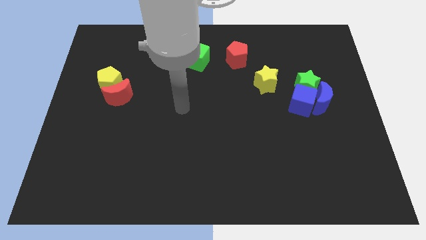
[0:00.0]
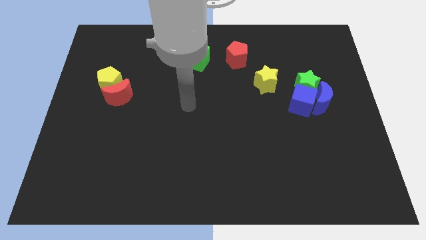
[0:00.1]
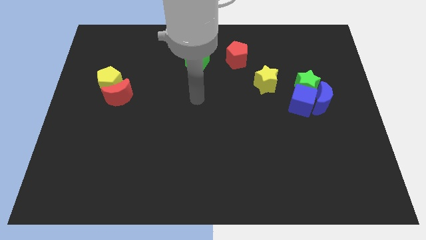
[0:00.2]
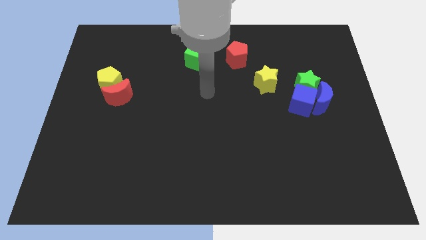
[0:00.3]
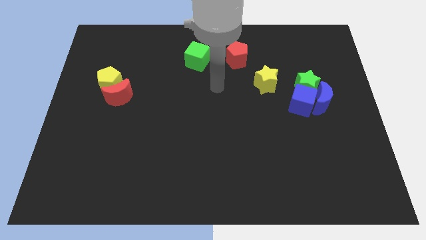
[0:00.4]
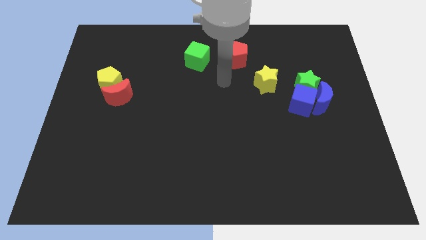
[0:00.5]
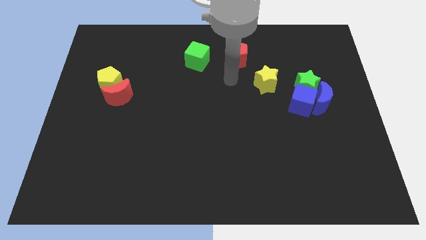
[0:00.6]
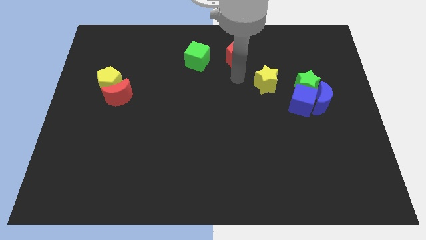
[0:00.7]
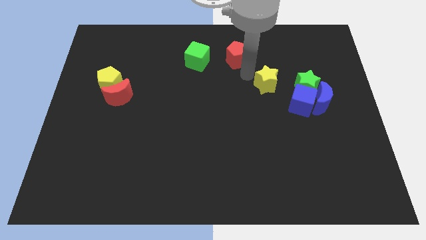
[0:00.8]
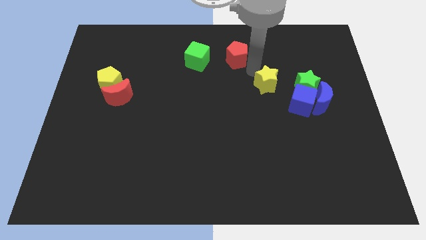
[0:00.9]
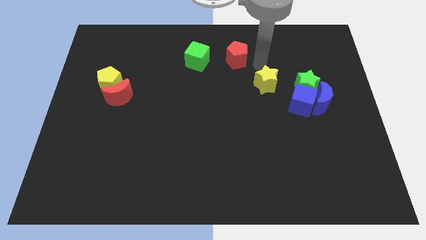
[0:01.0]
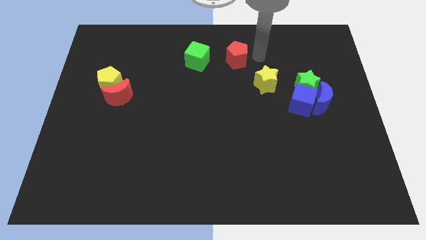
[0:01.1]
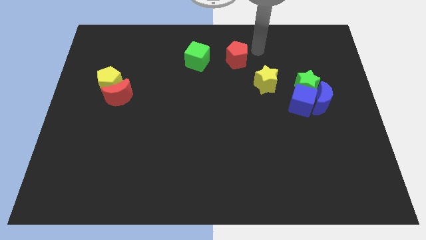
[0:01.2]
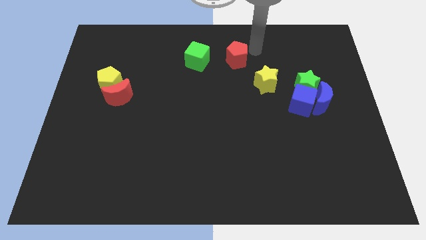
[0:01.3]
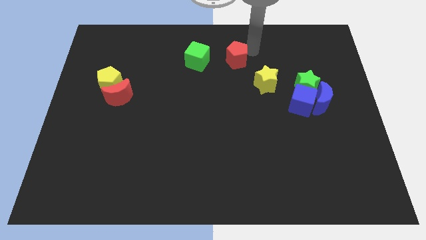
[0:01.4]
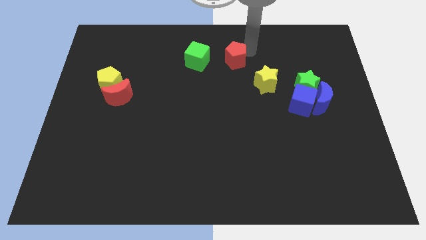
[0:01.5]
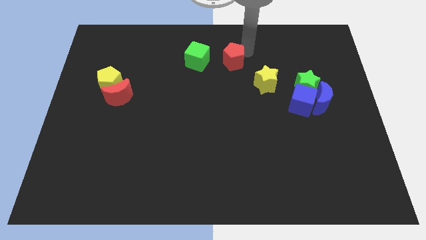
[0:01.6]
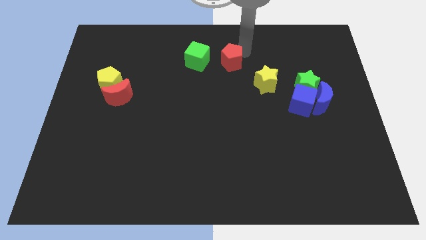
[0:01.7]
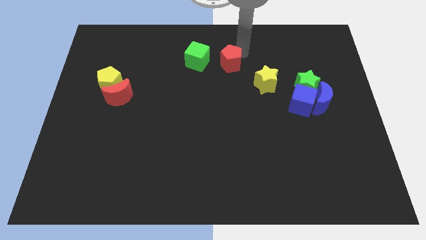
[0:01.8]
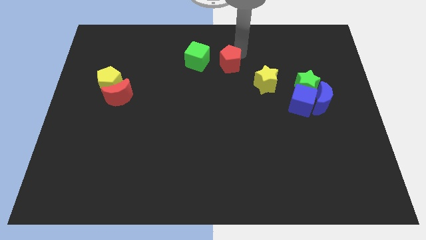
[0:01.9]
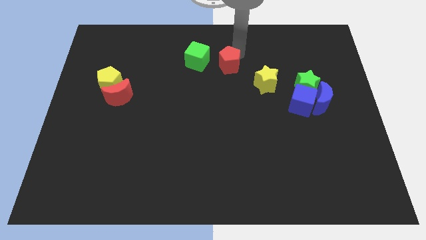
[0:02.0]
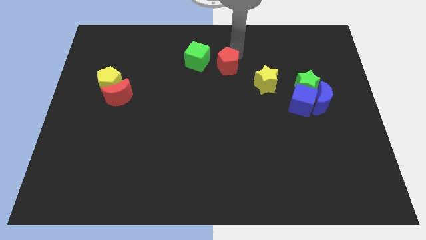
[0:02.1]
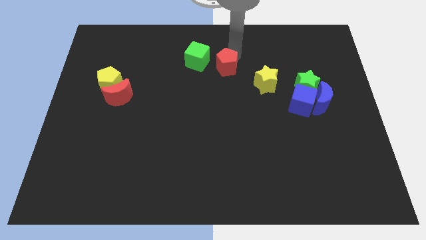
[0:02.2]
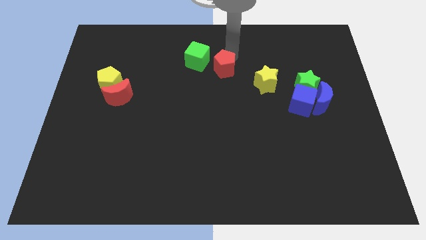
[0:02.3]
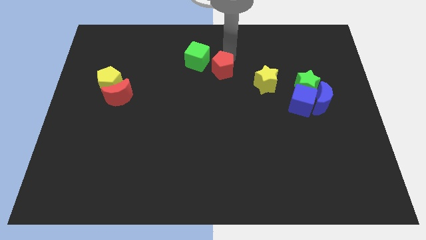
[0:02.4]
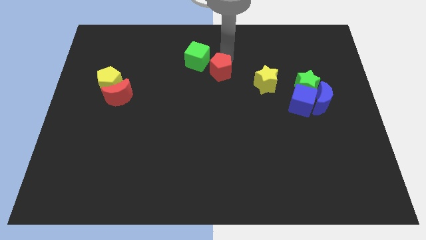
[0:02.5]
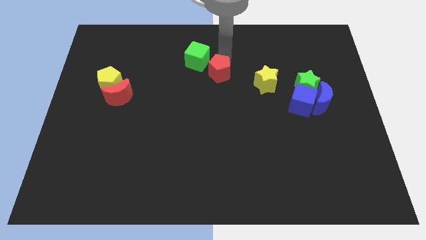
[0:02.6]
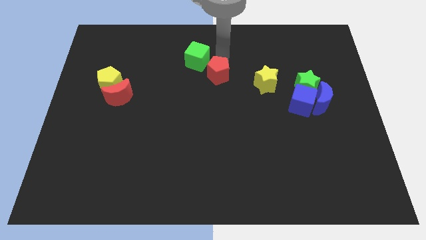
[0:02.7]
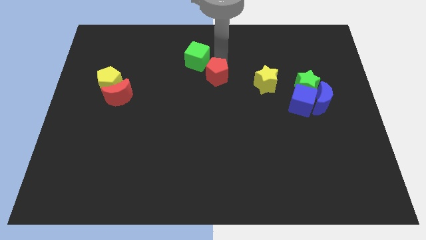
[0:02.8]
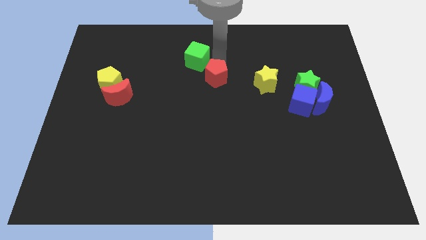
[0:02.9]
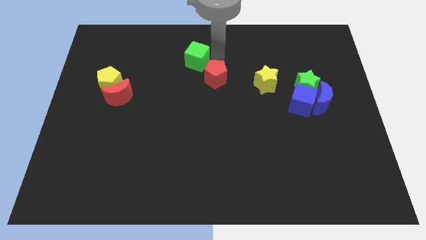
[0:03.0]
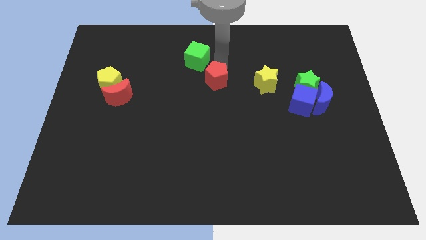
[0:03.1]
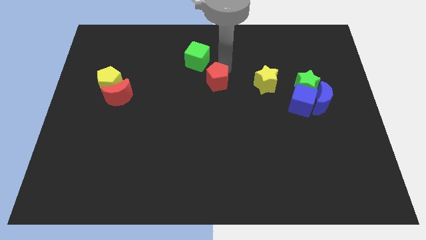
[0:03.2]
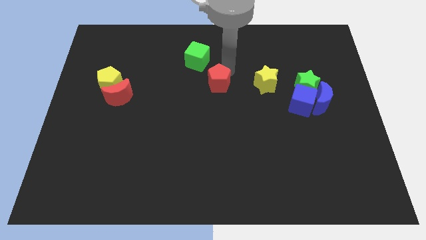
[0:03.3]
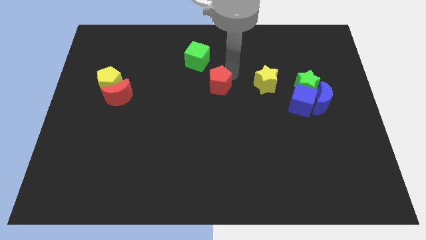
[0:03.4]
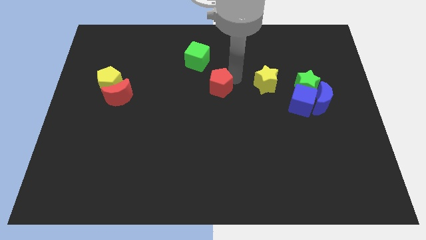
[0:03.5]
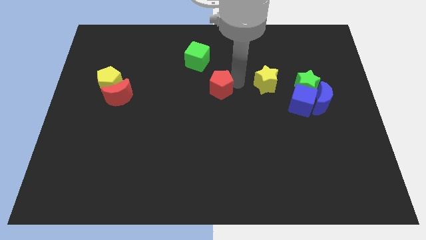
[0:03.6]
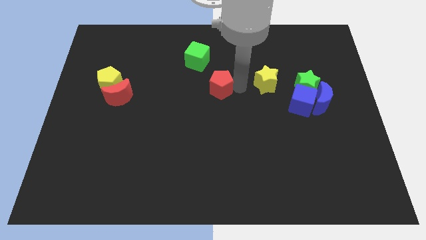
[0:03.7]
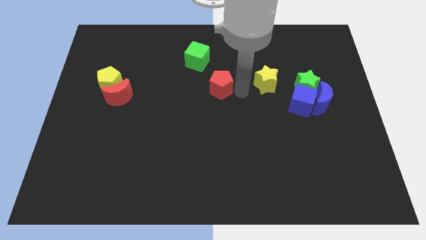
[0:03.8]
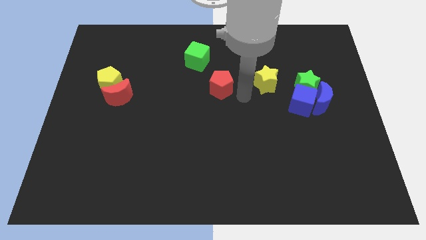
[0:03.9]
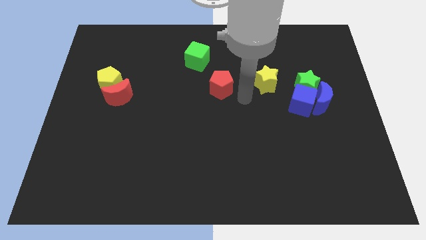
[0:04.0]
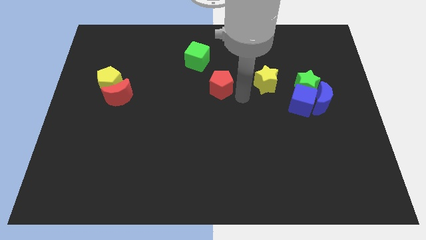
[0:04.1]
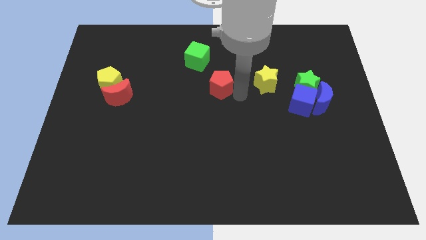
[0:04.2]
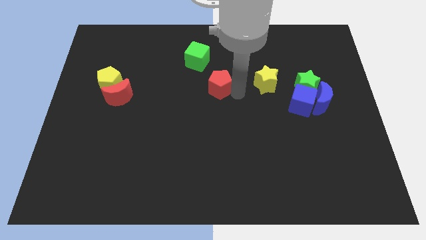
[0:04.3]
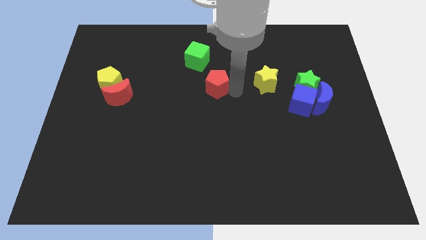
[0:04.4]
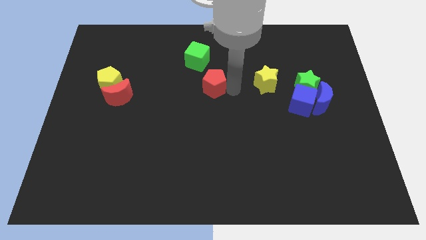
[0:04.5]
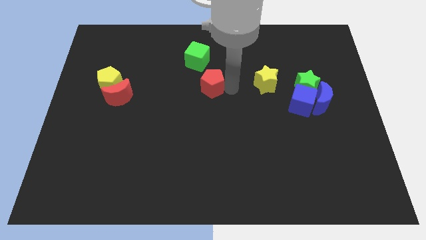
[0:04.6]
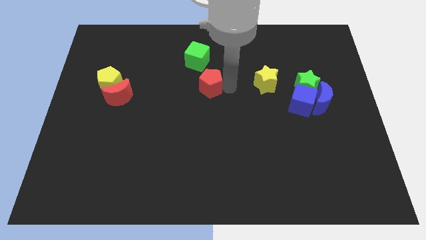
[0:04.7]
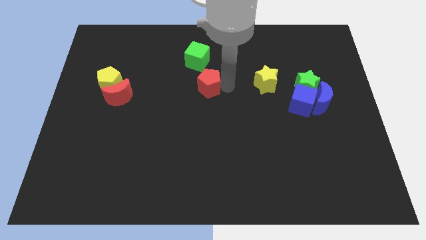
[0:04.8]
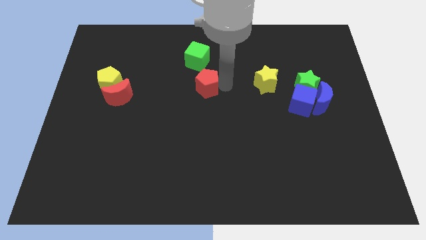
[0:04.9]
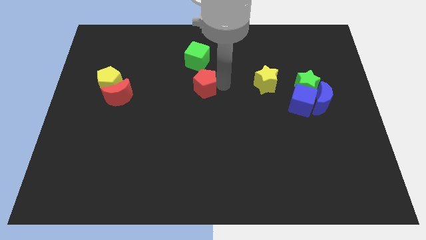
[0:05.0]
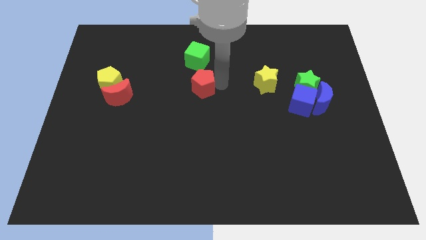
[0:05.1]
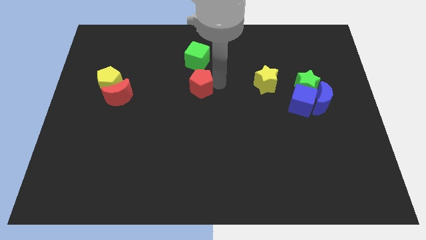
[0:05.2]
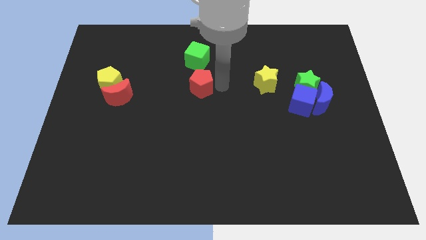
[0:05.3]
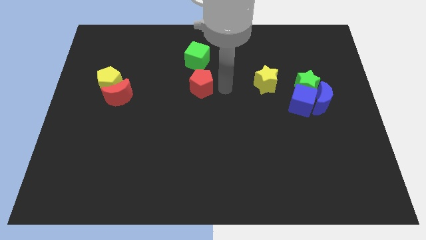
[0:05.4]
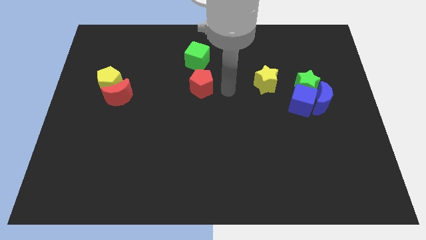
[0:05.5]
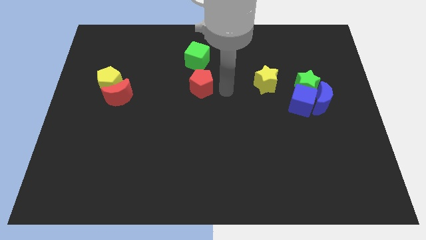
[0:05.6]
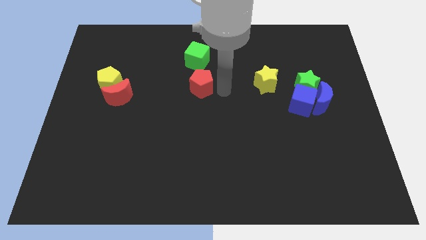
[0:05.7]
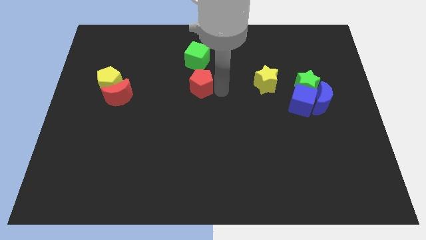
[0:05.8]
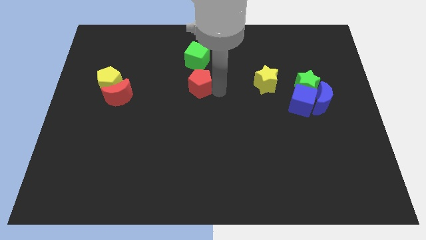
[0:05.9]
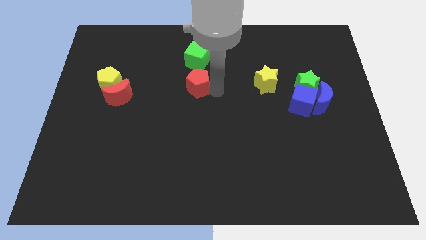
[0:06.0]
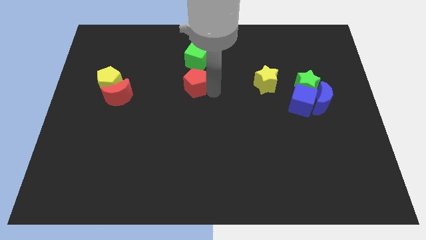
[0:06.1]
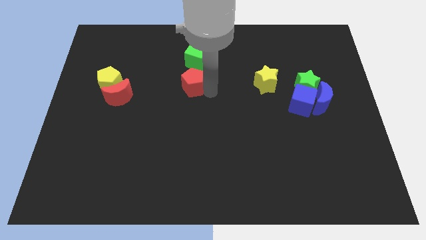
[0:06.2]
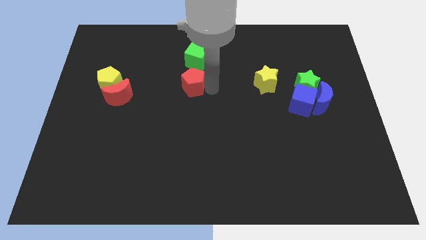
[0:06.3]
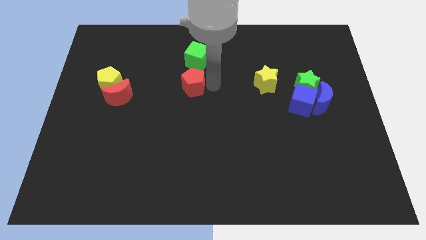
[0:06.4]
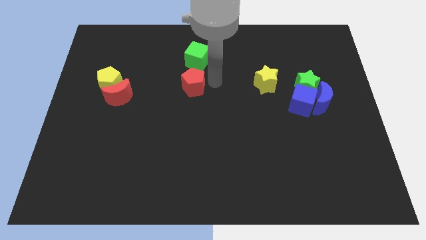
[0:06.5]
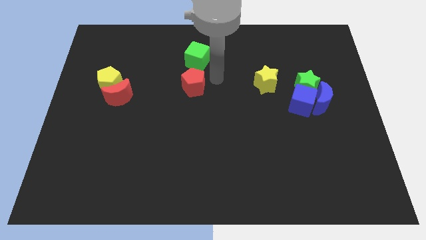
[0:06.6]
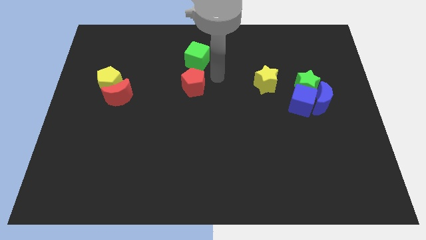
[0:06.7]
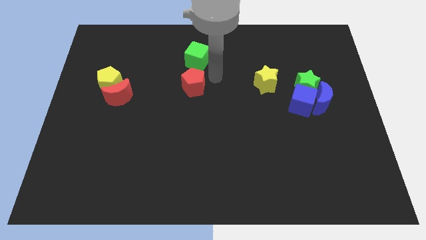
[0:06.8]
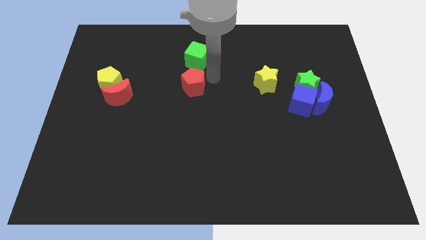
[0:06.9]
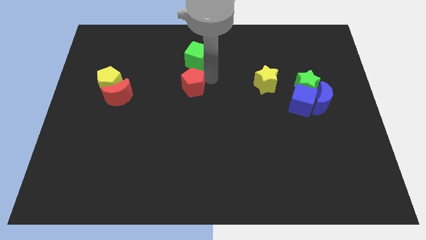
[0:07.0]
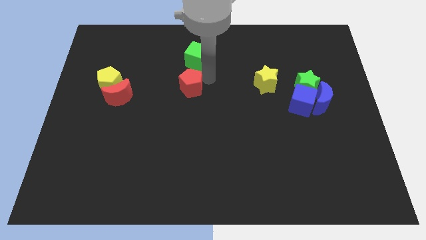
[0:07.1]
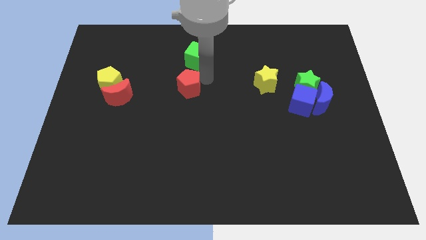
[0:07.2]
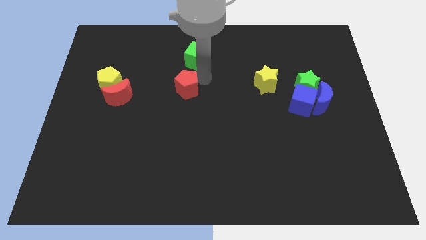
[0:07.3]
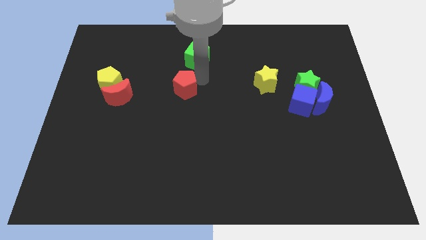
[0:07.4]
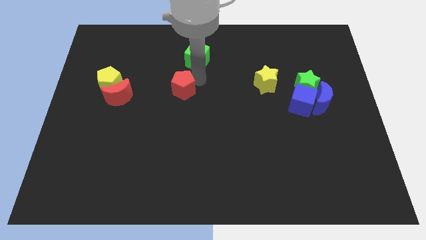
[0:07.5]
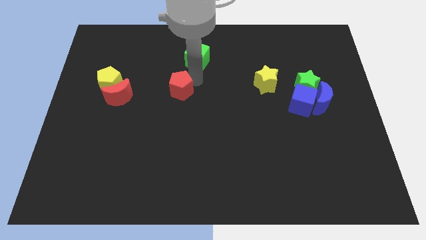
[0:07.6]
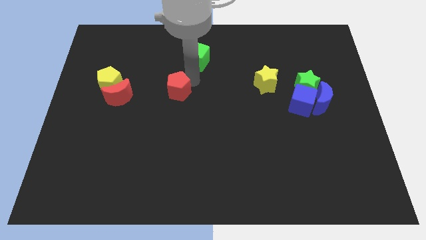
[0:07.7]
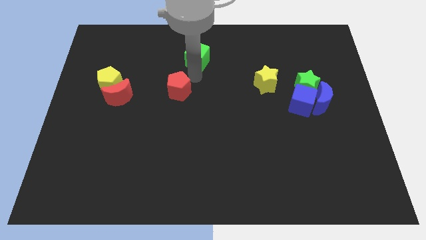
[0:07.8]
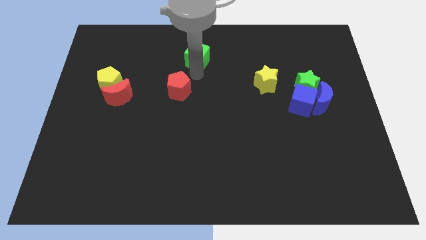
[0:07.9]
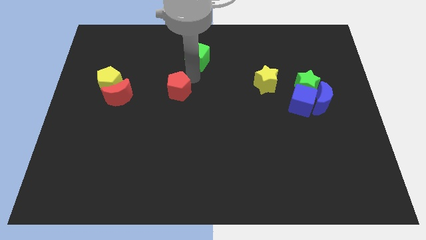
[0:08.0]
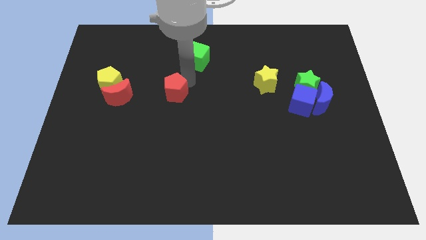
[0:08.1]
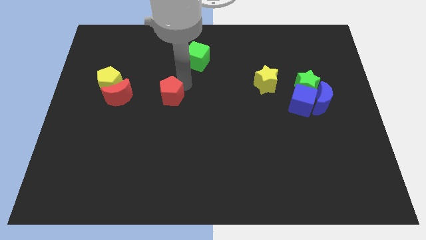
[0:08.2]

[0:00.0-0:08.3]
move the red pentagon down and then left
